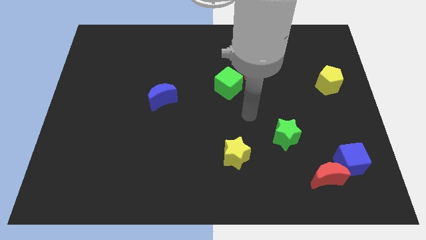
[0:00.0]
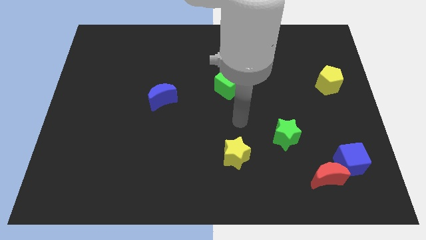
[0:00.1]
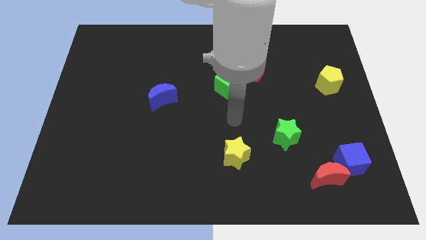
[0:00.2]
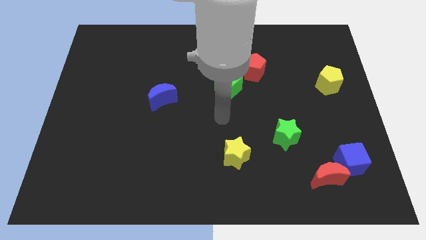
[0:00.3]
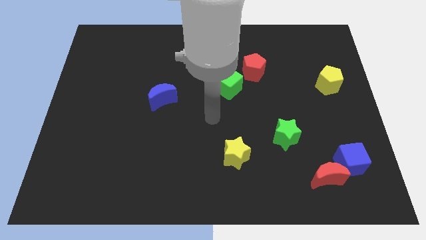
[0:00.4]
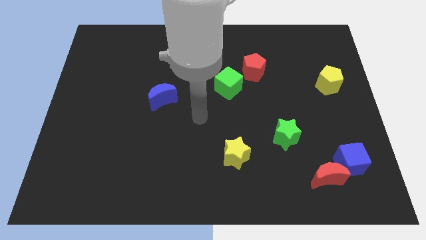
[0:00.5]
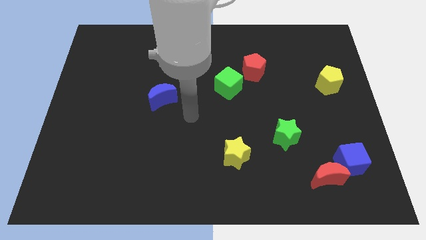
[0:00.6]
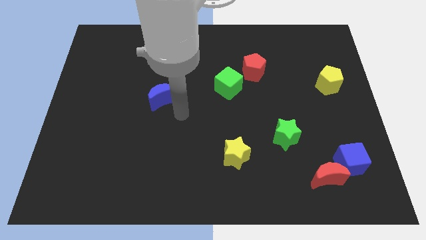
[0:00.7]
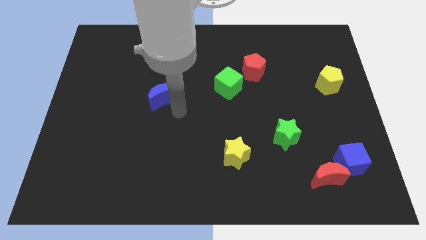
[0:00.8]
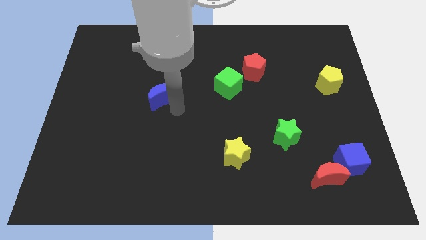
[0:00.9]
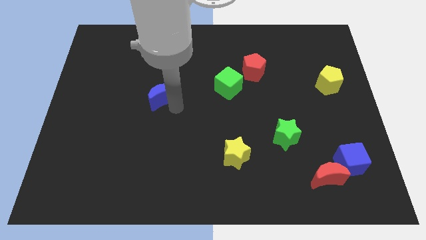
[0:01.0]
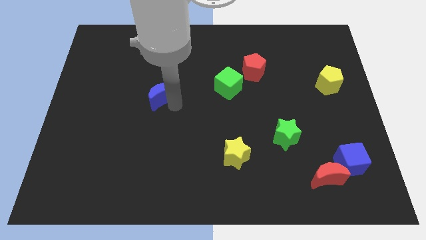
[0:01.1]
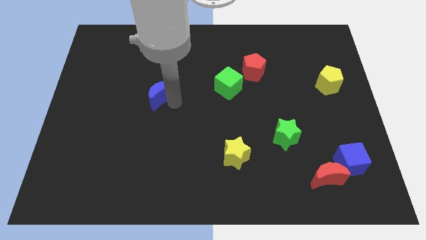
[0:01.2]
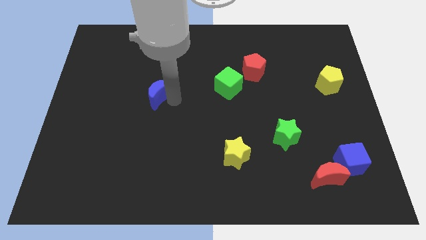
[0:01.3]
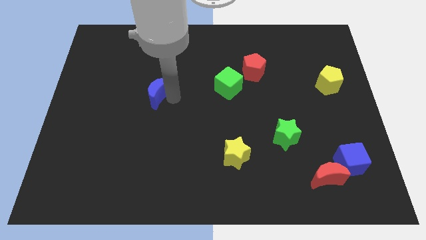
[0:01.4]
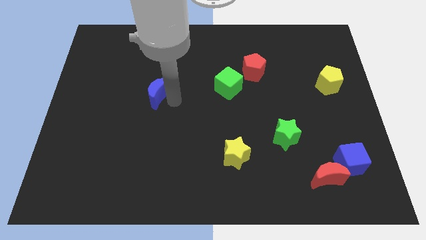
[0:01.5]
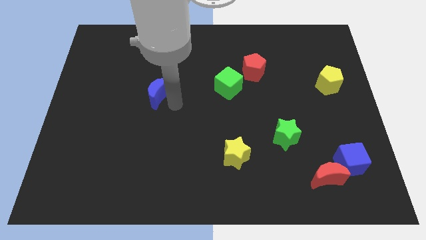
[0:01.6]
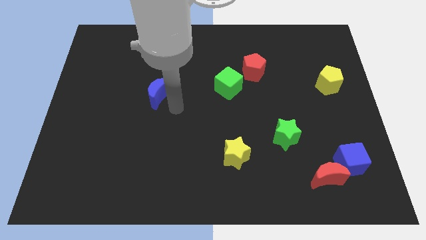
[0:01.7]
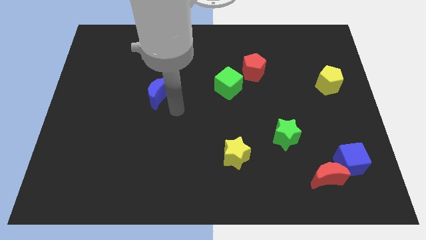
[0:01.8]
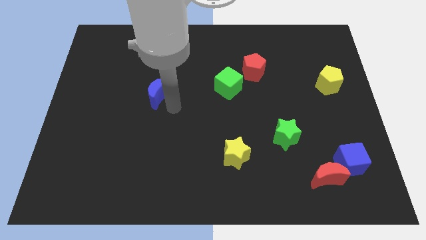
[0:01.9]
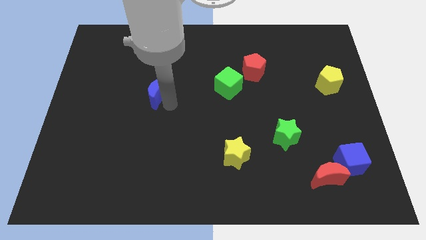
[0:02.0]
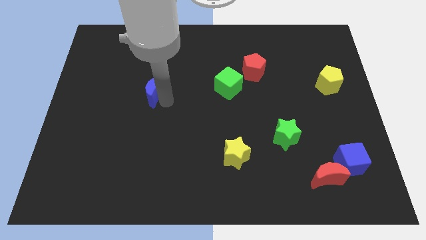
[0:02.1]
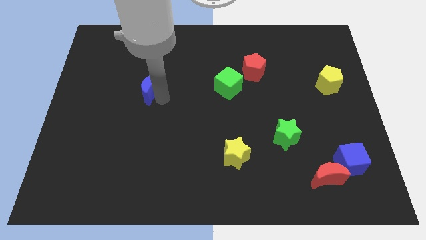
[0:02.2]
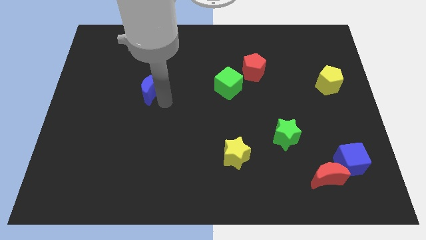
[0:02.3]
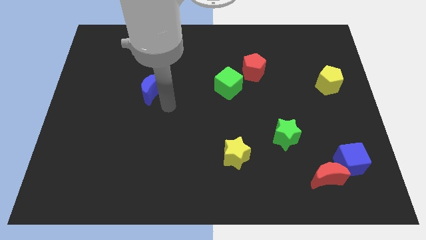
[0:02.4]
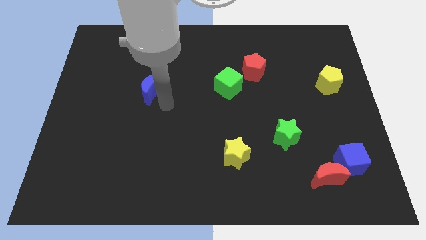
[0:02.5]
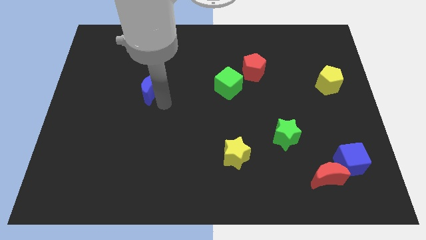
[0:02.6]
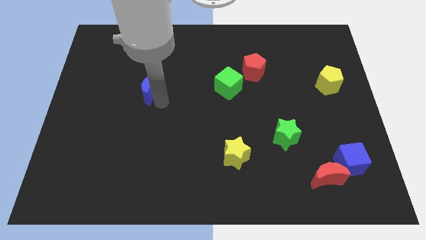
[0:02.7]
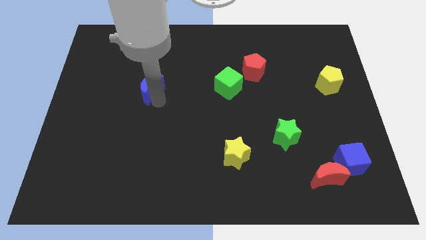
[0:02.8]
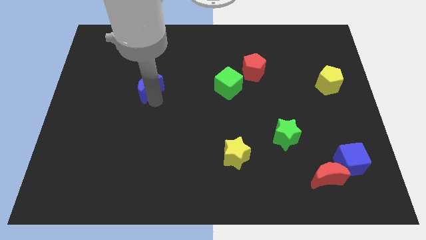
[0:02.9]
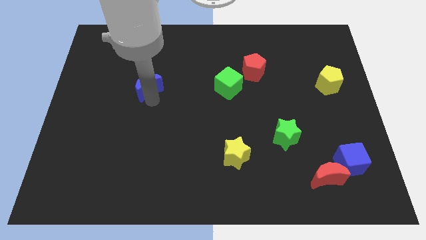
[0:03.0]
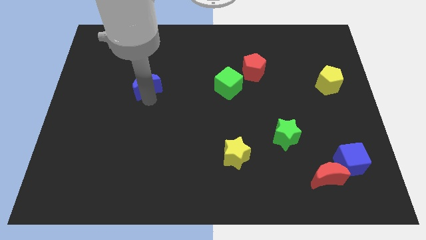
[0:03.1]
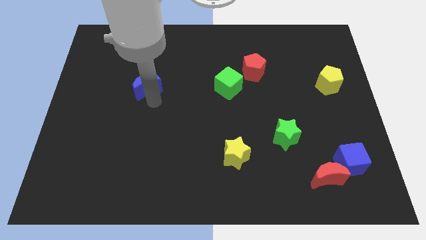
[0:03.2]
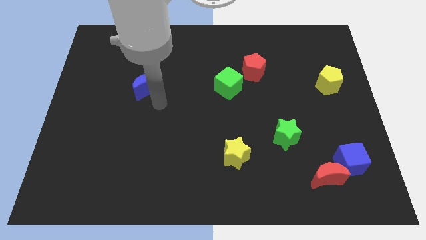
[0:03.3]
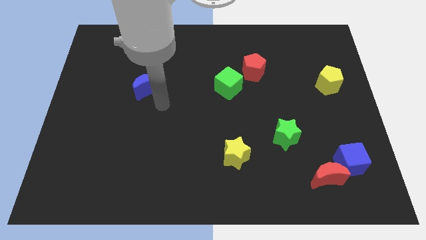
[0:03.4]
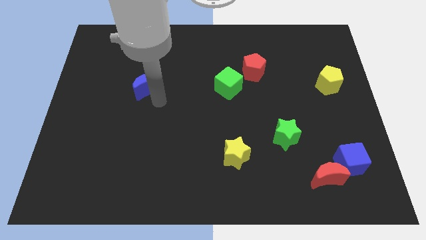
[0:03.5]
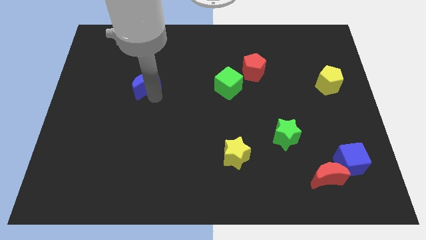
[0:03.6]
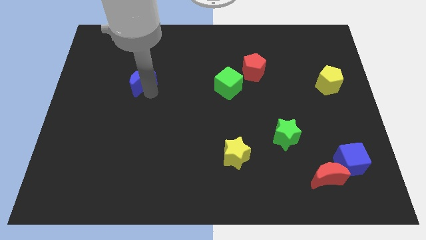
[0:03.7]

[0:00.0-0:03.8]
slide the blue moon a bit up and left diagonally

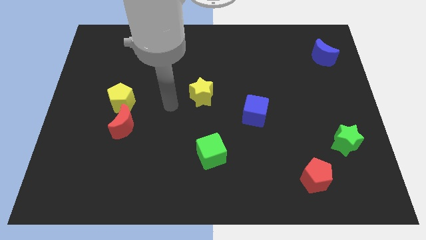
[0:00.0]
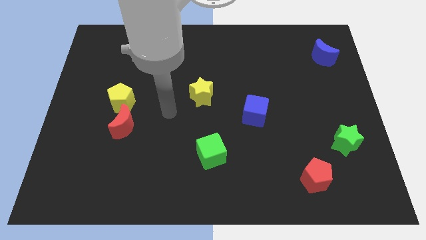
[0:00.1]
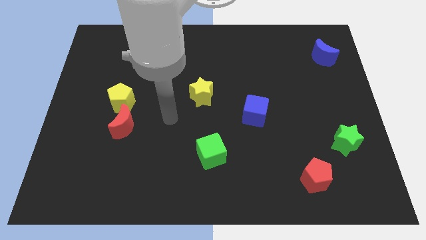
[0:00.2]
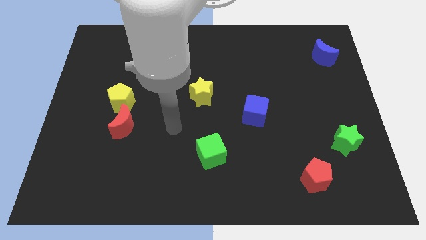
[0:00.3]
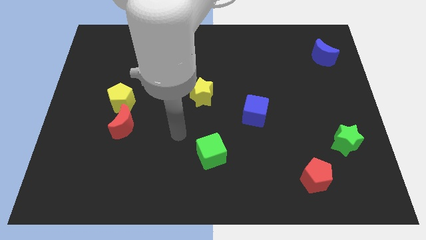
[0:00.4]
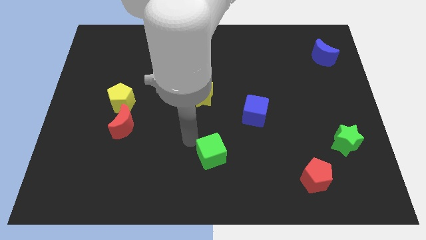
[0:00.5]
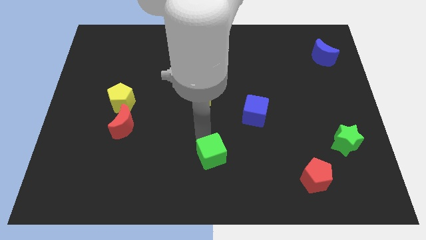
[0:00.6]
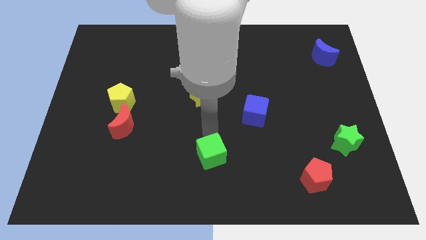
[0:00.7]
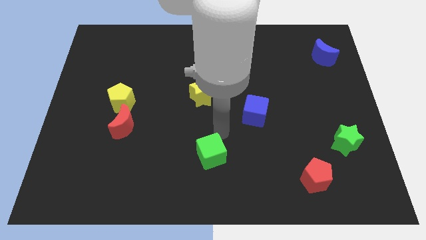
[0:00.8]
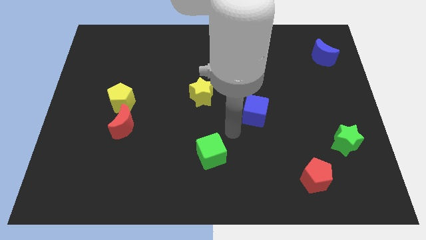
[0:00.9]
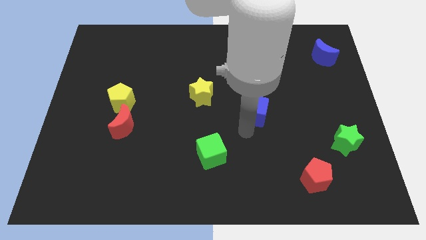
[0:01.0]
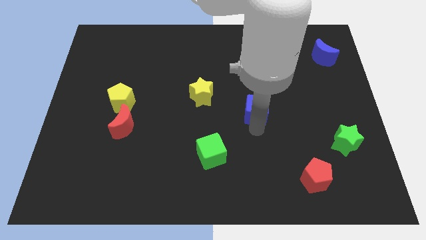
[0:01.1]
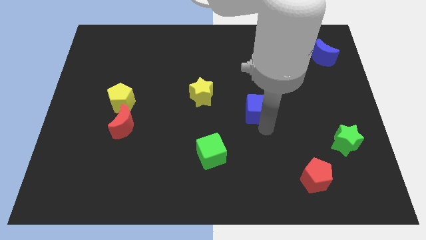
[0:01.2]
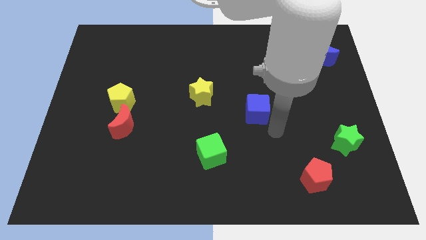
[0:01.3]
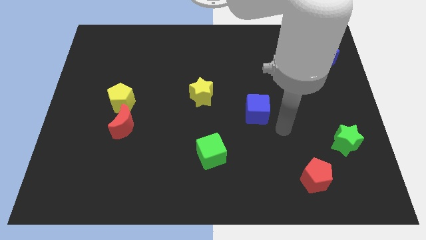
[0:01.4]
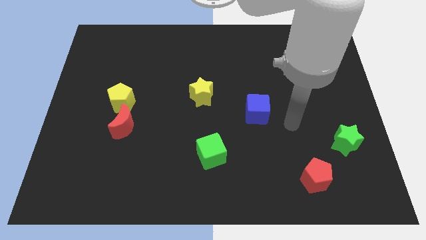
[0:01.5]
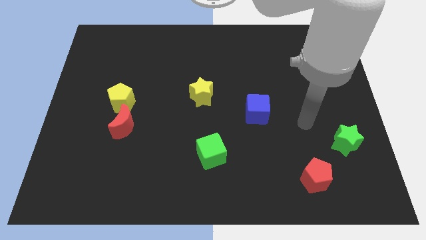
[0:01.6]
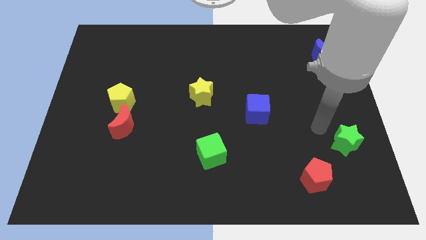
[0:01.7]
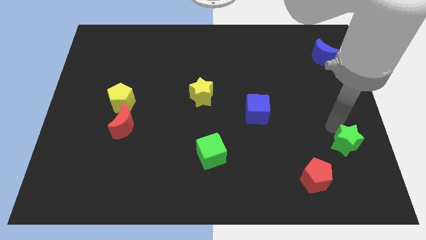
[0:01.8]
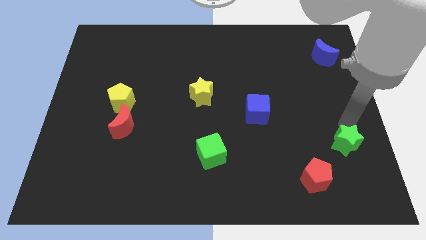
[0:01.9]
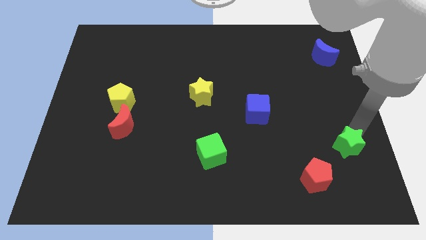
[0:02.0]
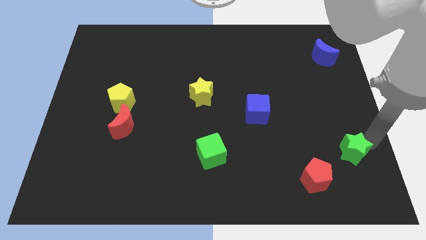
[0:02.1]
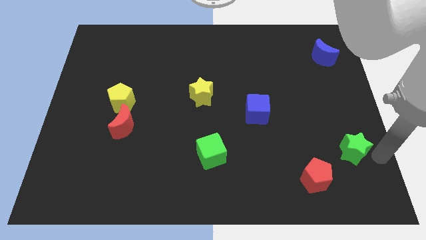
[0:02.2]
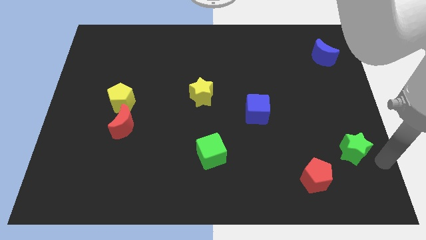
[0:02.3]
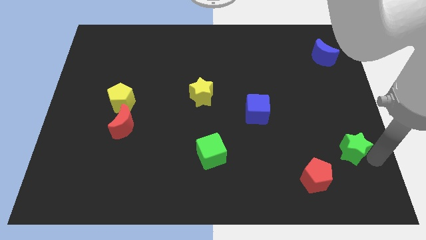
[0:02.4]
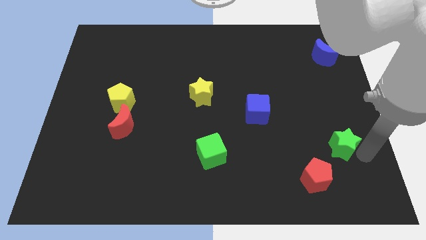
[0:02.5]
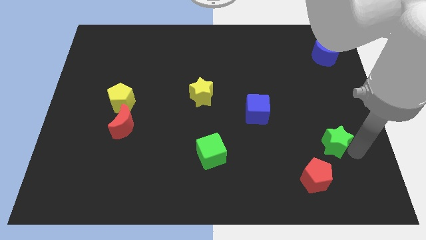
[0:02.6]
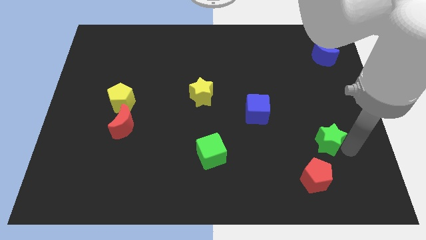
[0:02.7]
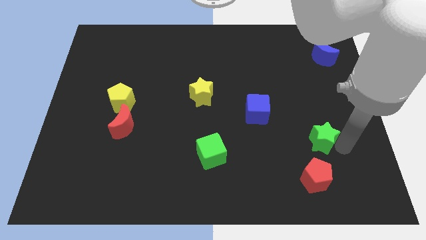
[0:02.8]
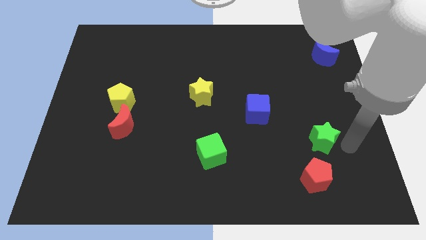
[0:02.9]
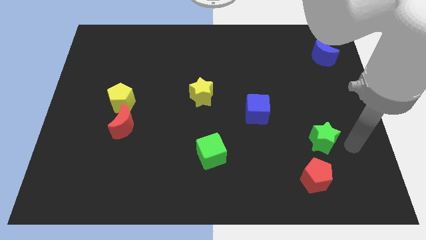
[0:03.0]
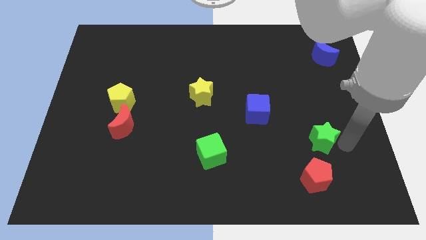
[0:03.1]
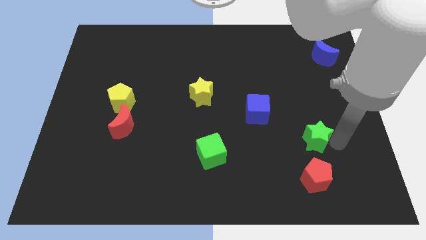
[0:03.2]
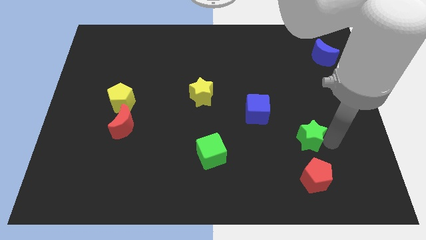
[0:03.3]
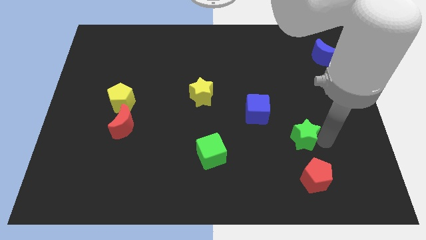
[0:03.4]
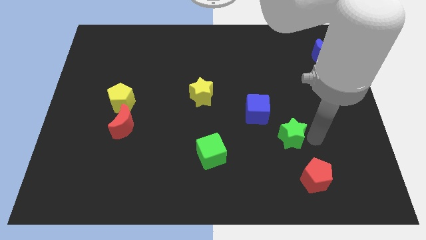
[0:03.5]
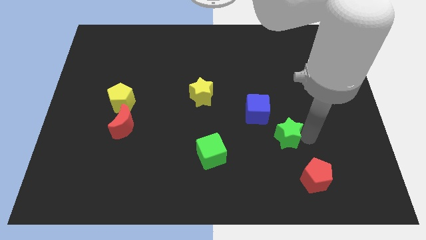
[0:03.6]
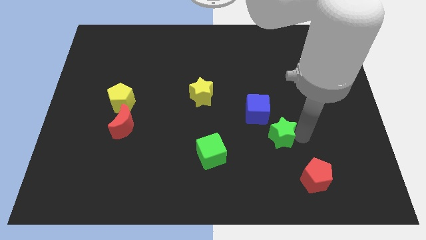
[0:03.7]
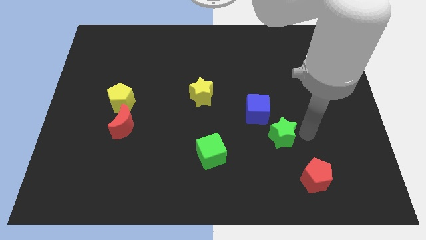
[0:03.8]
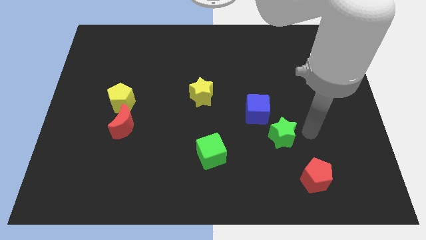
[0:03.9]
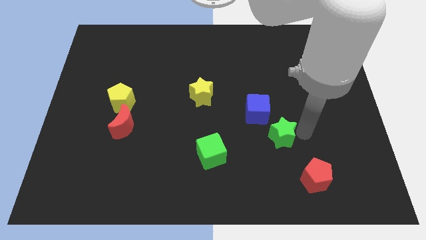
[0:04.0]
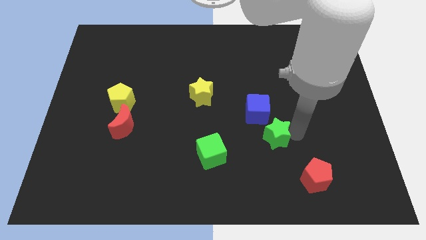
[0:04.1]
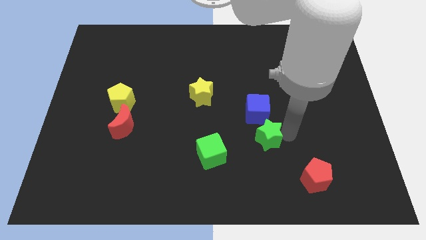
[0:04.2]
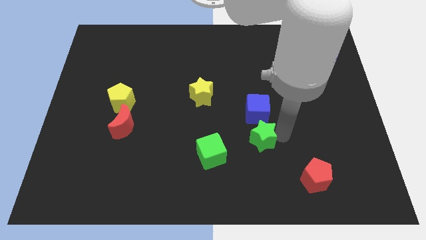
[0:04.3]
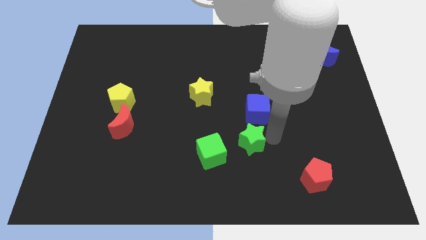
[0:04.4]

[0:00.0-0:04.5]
move the green star left
